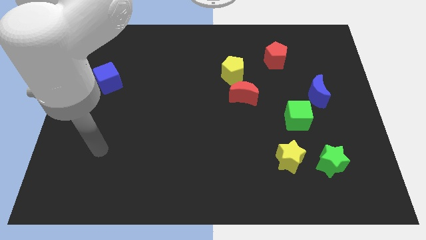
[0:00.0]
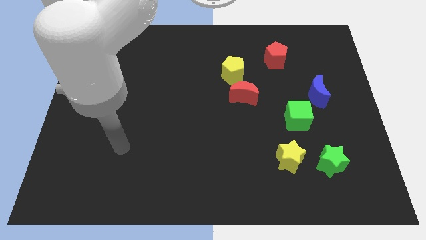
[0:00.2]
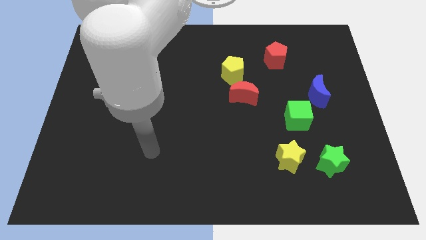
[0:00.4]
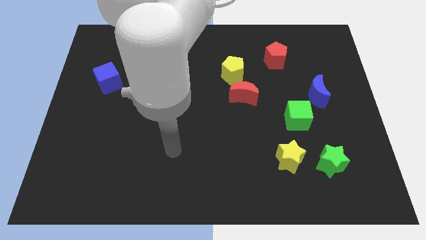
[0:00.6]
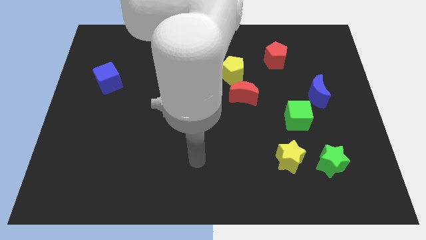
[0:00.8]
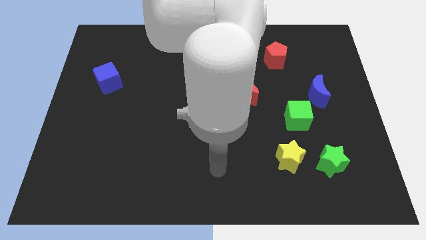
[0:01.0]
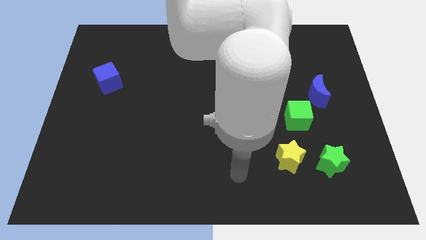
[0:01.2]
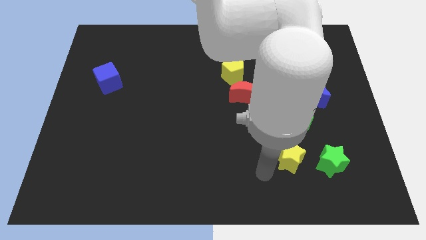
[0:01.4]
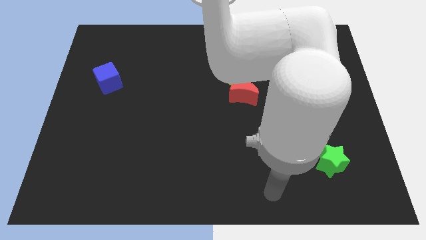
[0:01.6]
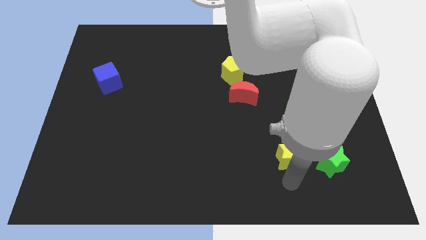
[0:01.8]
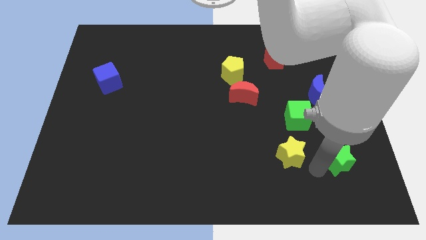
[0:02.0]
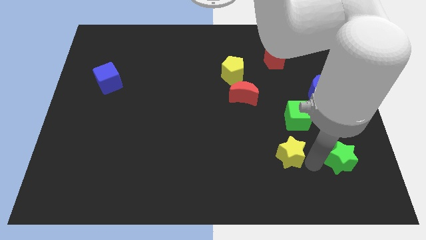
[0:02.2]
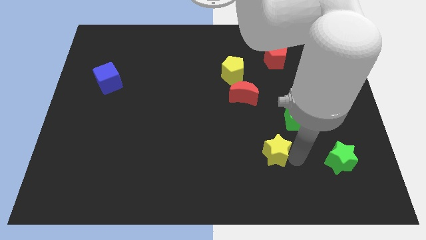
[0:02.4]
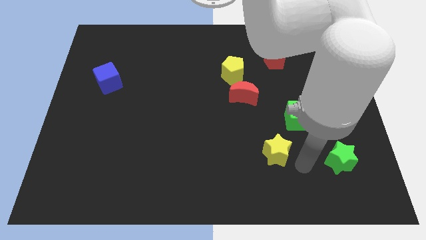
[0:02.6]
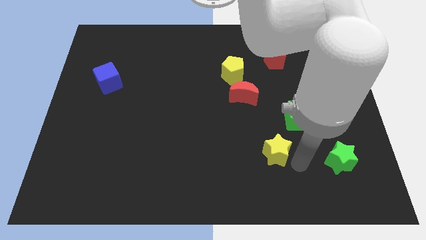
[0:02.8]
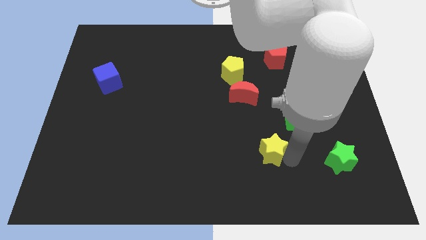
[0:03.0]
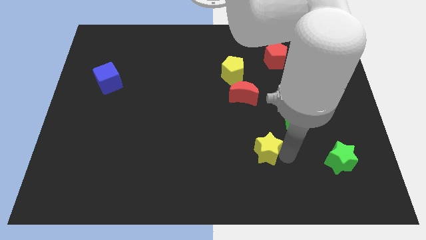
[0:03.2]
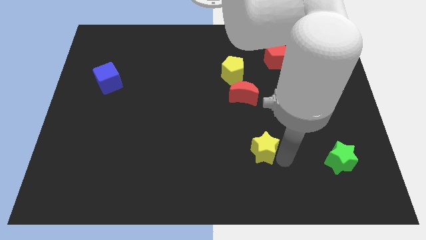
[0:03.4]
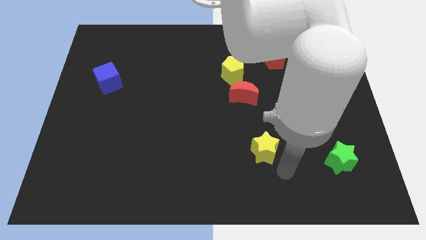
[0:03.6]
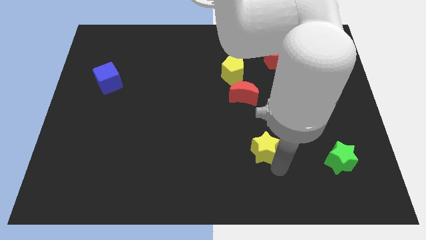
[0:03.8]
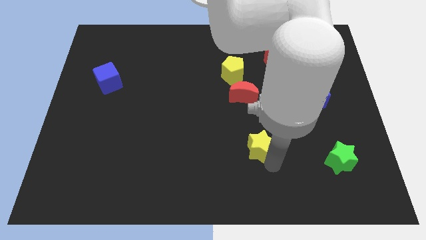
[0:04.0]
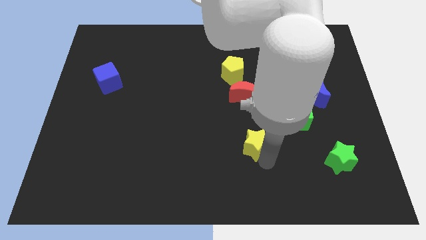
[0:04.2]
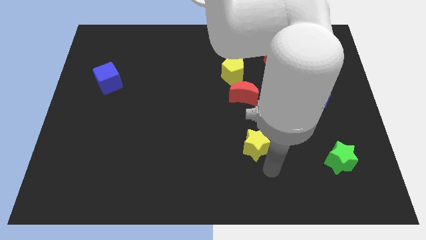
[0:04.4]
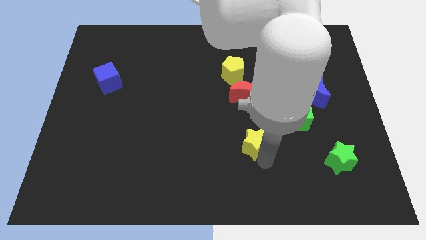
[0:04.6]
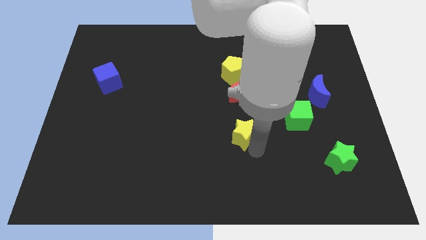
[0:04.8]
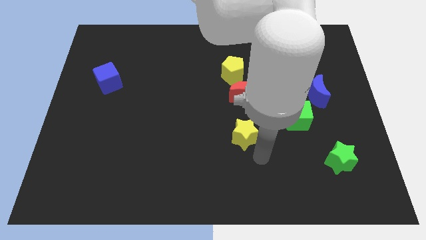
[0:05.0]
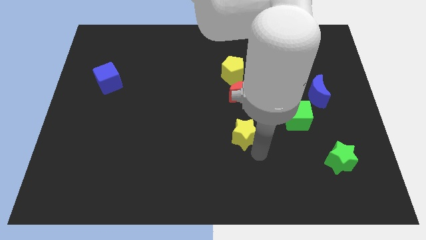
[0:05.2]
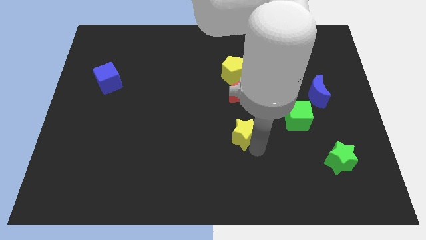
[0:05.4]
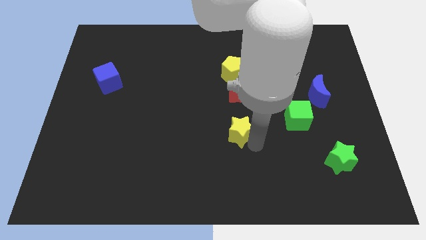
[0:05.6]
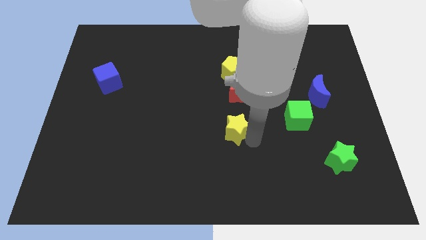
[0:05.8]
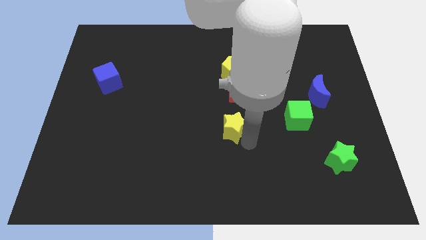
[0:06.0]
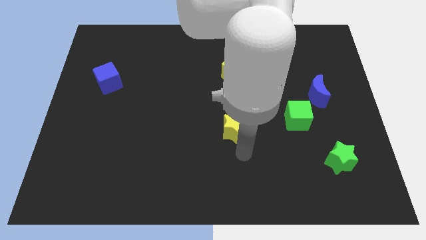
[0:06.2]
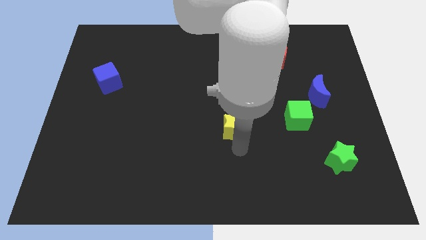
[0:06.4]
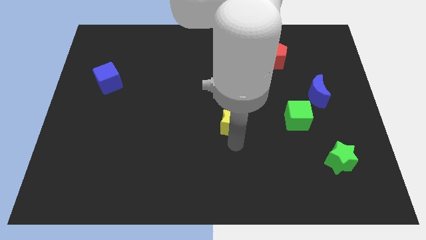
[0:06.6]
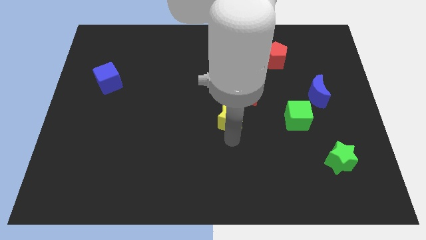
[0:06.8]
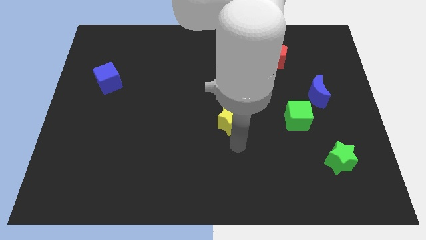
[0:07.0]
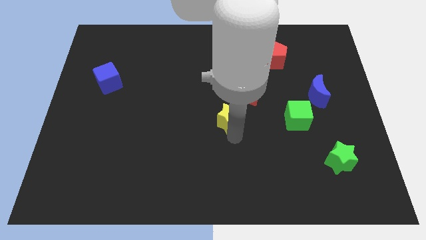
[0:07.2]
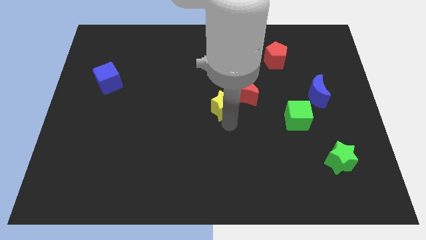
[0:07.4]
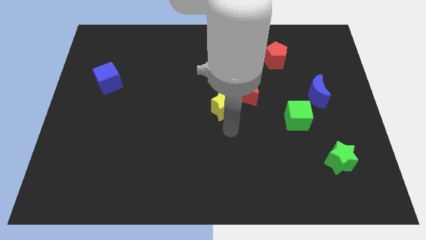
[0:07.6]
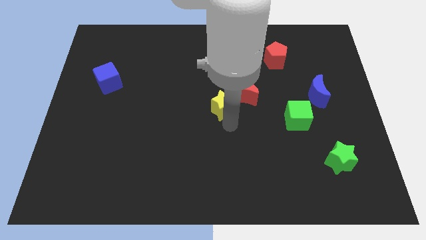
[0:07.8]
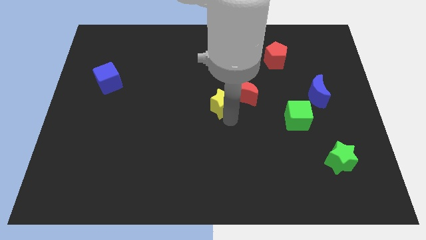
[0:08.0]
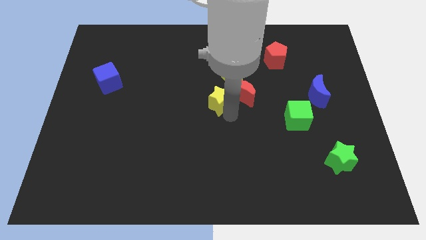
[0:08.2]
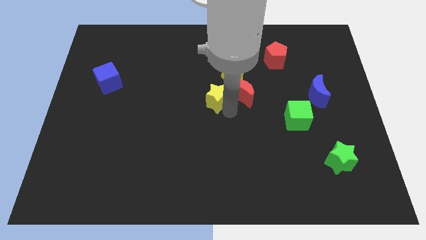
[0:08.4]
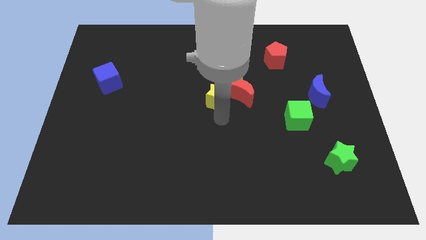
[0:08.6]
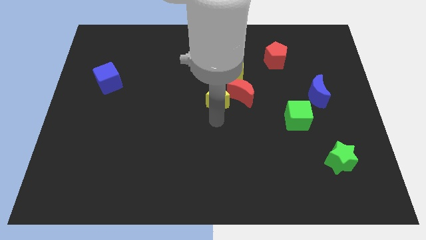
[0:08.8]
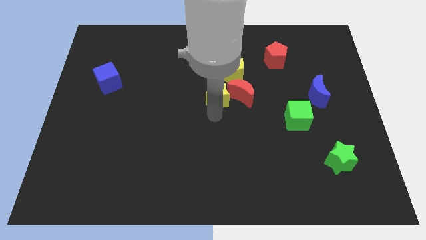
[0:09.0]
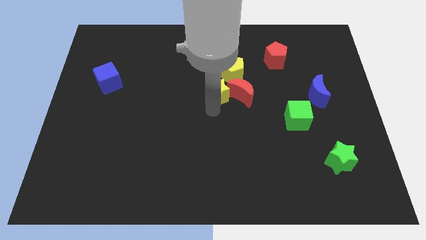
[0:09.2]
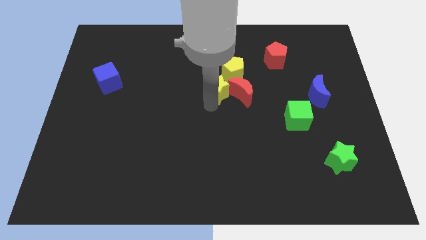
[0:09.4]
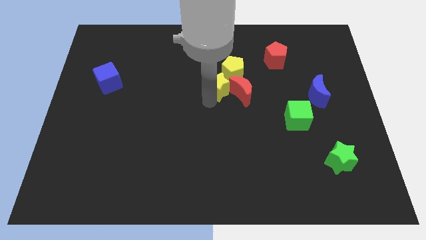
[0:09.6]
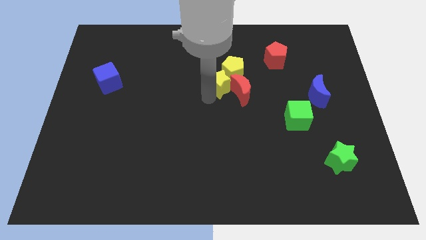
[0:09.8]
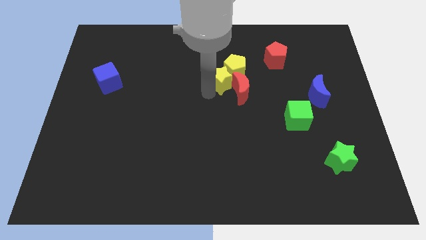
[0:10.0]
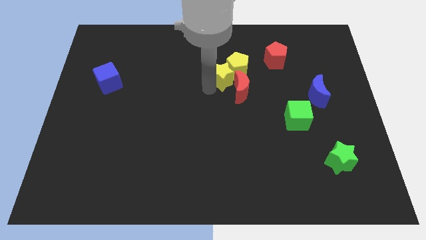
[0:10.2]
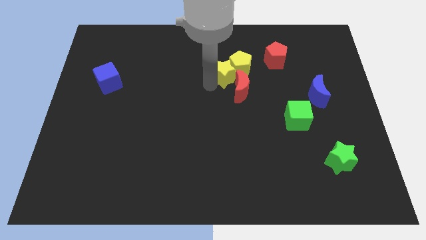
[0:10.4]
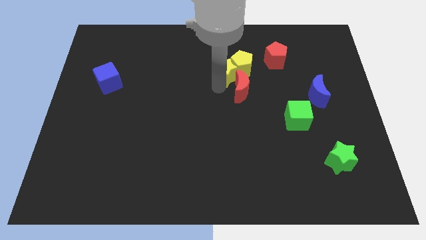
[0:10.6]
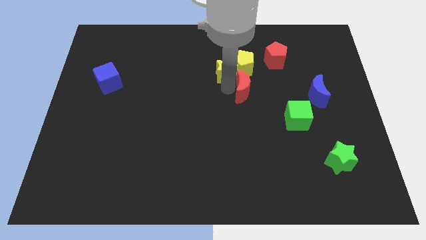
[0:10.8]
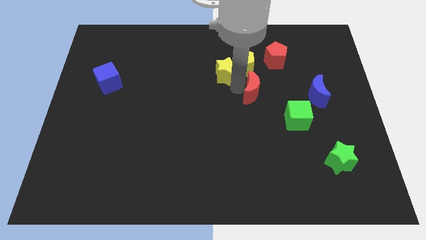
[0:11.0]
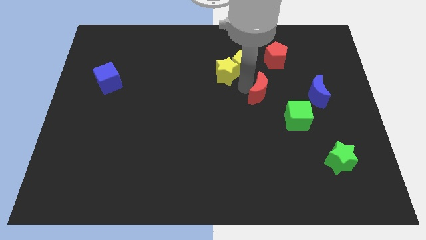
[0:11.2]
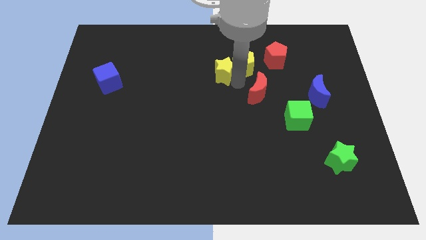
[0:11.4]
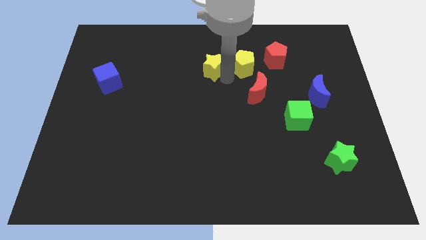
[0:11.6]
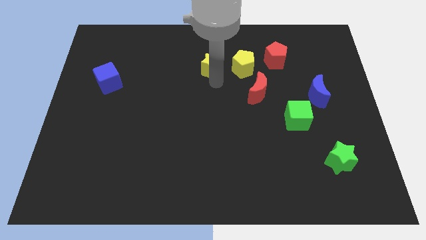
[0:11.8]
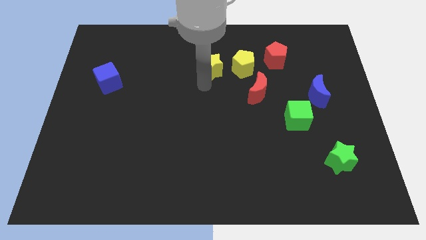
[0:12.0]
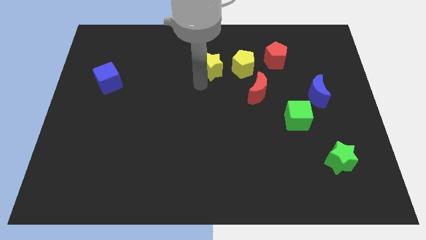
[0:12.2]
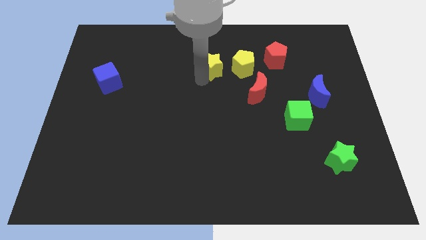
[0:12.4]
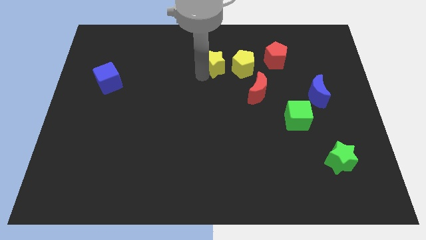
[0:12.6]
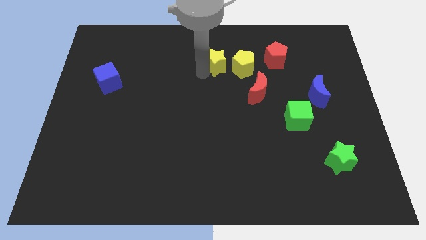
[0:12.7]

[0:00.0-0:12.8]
slide the yellow star diagonally up and to the left of the yellow pentagon

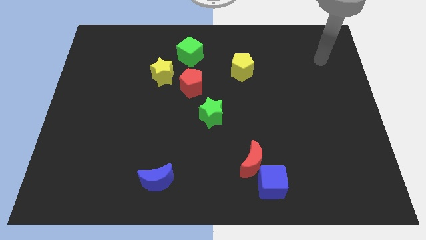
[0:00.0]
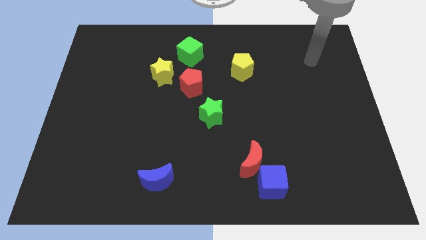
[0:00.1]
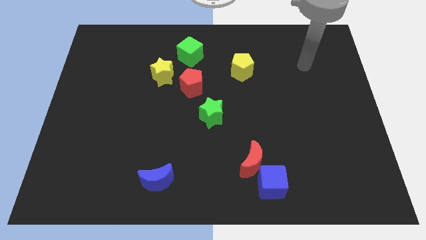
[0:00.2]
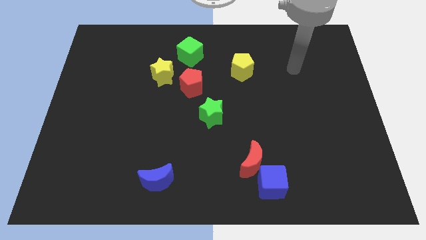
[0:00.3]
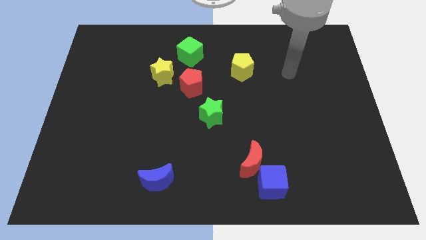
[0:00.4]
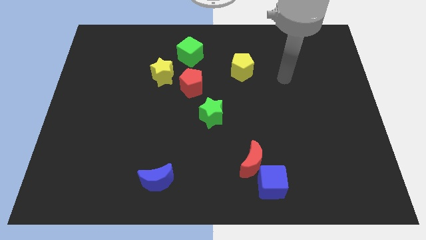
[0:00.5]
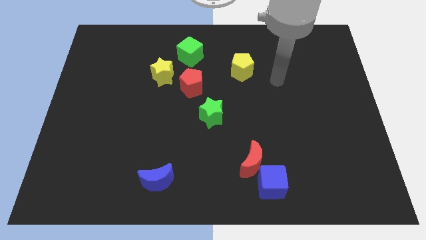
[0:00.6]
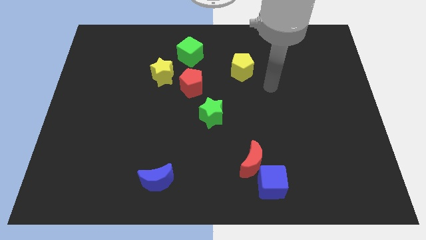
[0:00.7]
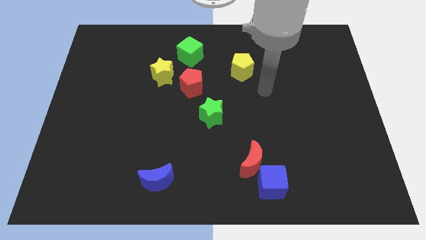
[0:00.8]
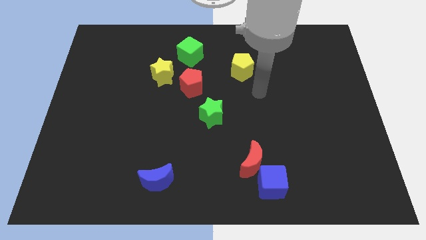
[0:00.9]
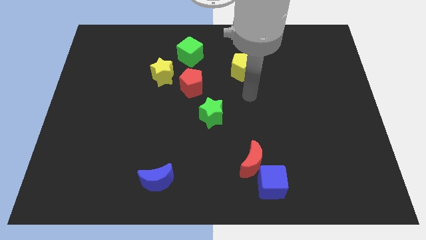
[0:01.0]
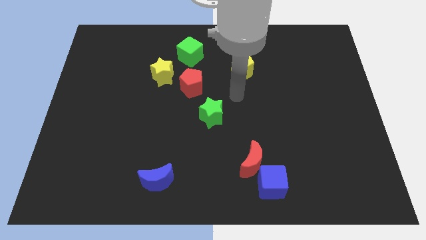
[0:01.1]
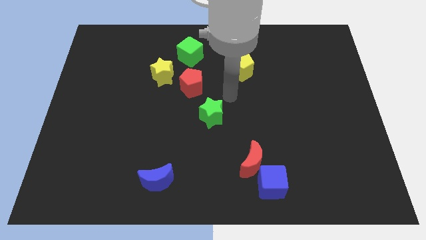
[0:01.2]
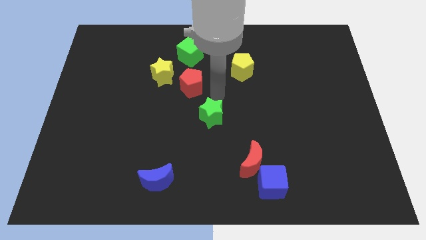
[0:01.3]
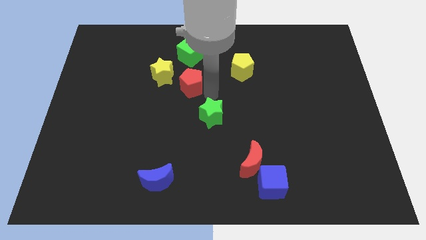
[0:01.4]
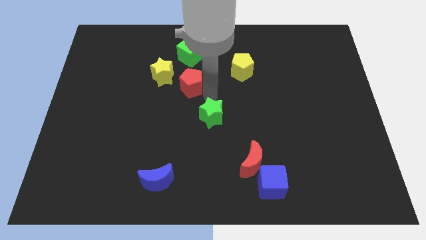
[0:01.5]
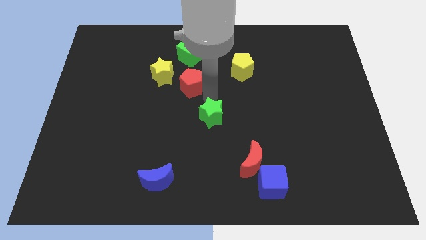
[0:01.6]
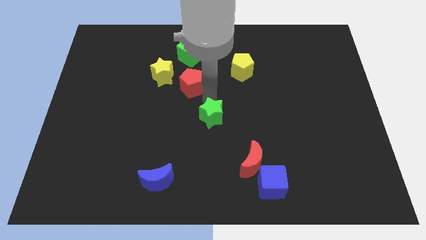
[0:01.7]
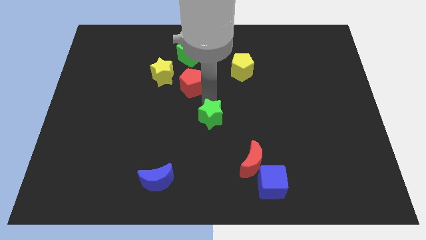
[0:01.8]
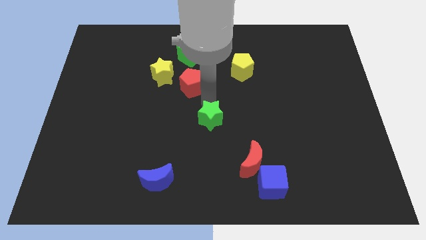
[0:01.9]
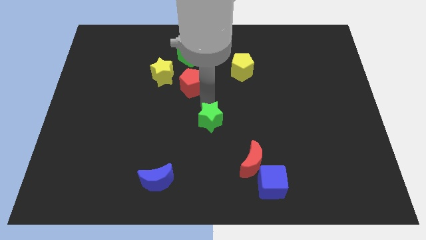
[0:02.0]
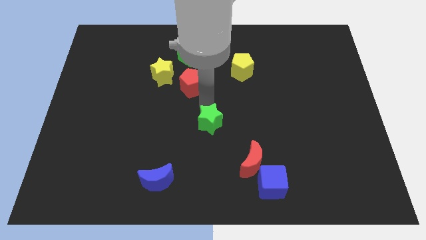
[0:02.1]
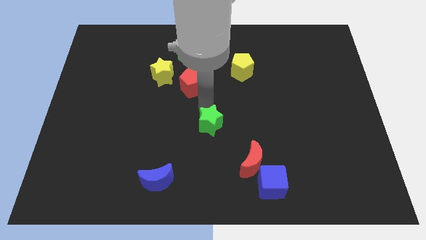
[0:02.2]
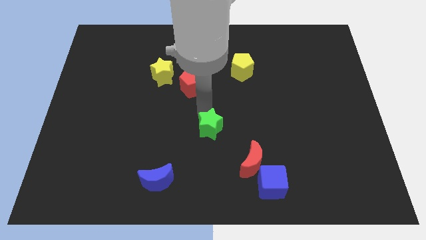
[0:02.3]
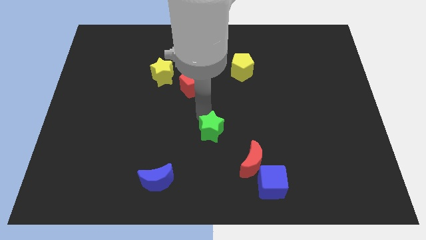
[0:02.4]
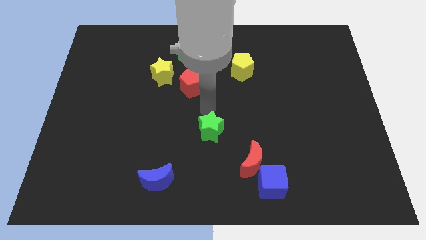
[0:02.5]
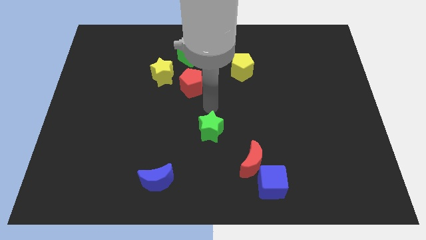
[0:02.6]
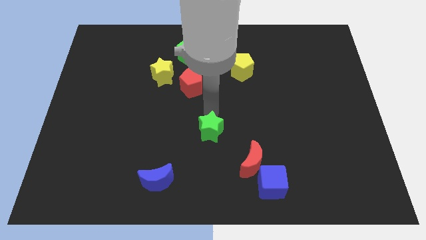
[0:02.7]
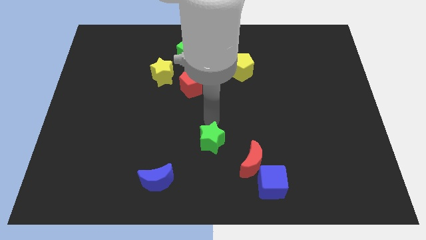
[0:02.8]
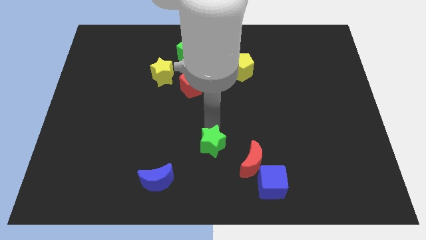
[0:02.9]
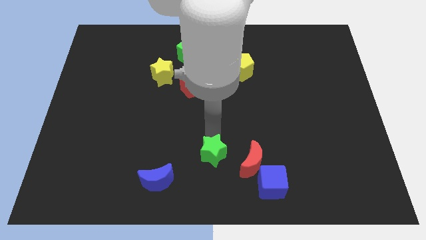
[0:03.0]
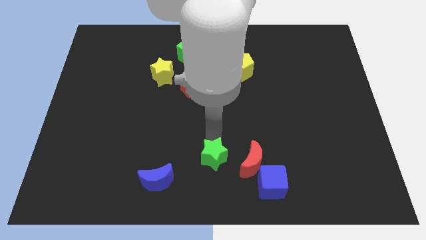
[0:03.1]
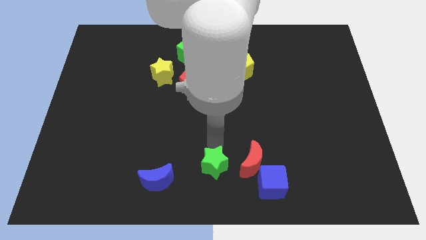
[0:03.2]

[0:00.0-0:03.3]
slide the green star right of the blue moon
